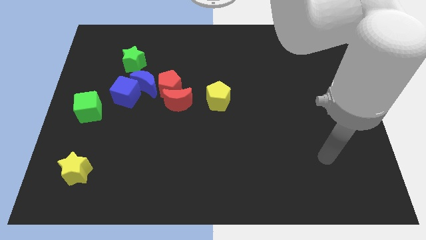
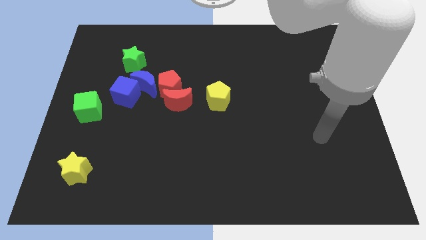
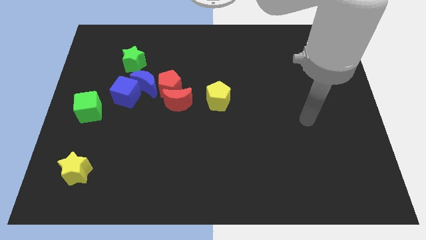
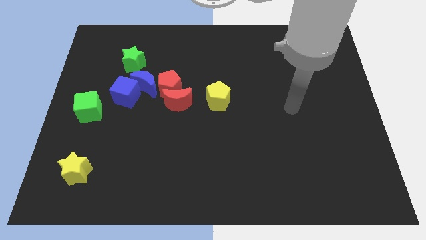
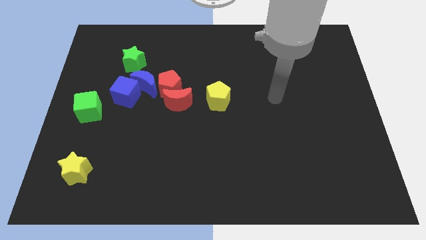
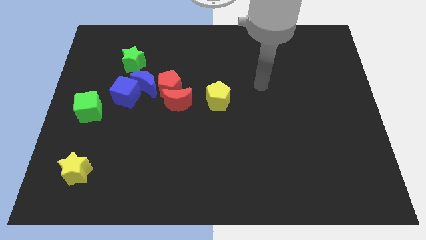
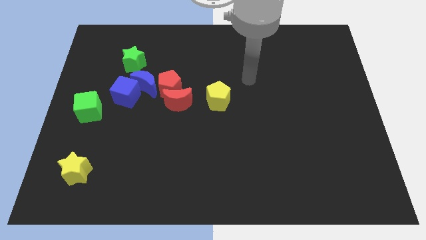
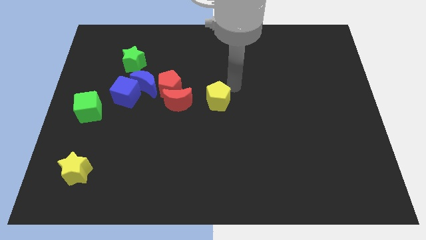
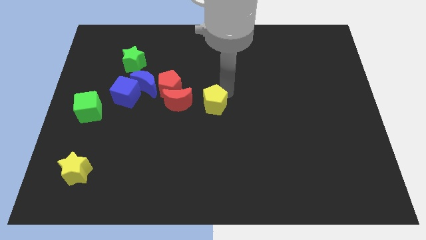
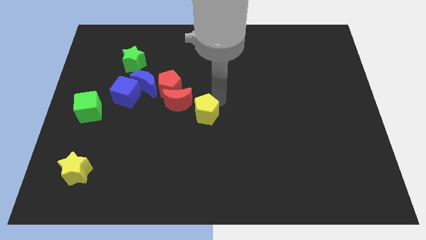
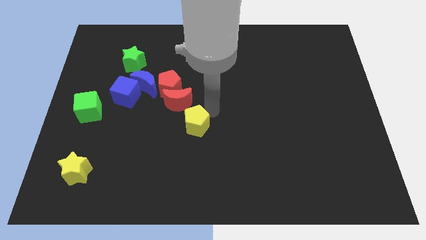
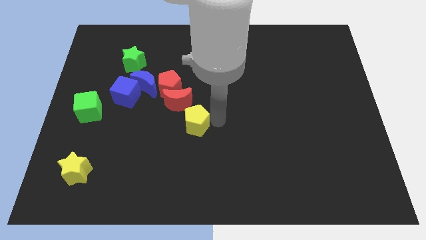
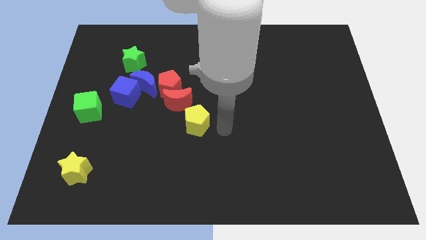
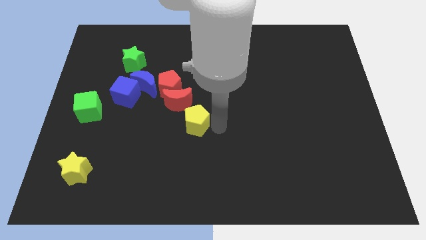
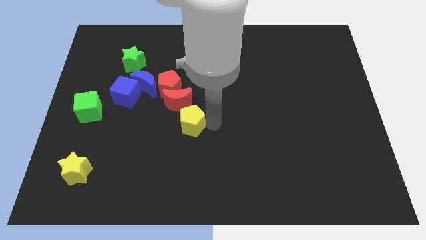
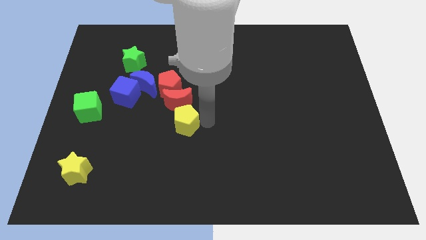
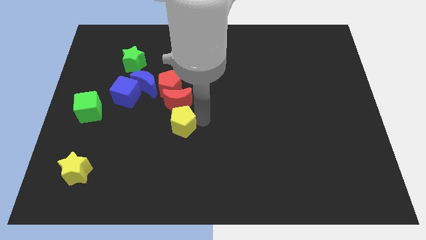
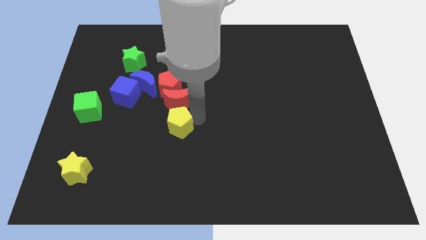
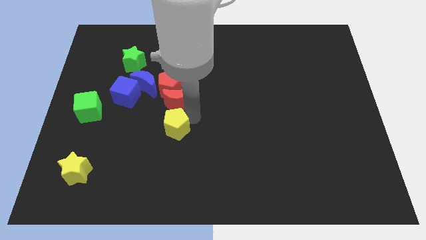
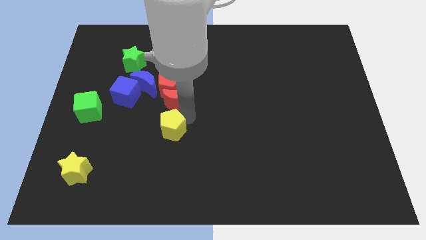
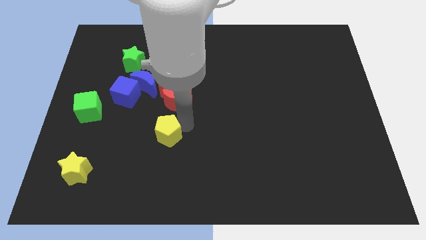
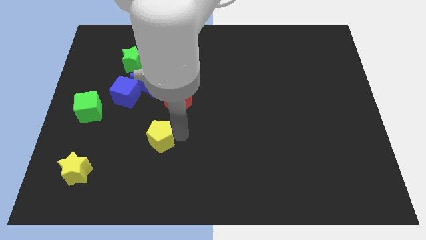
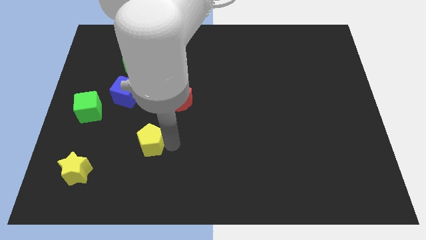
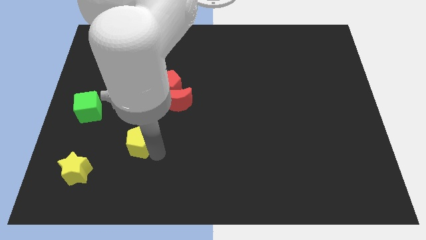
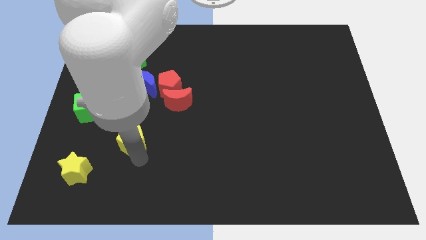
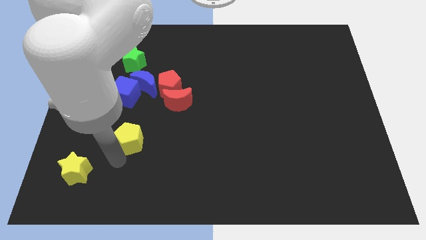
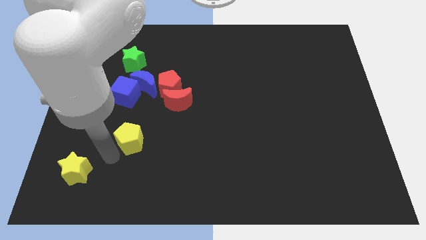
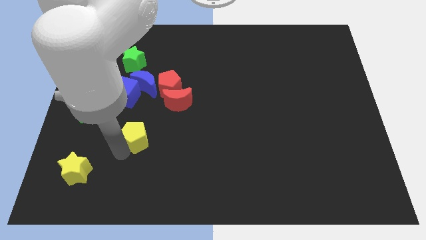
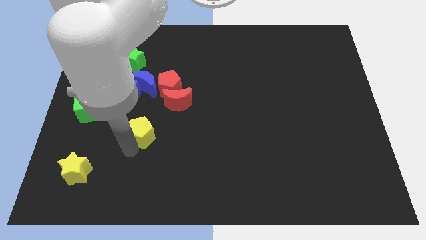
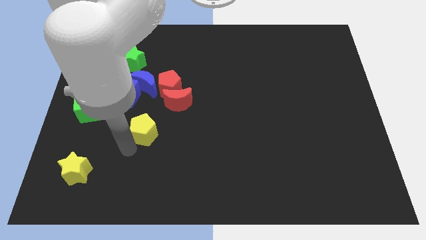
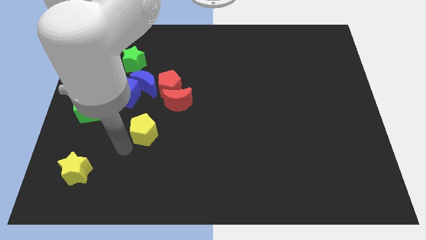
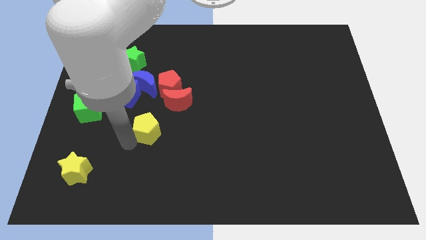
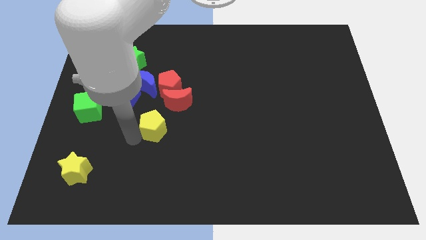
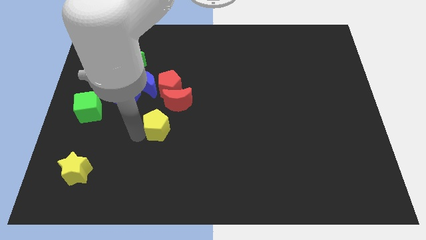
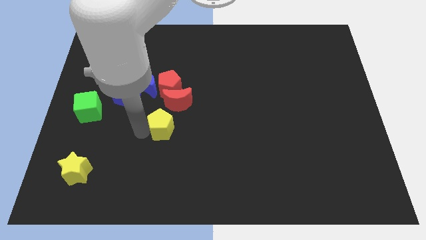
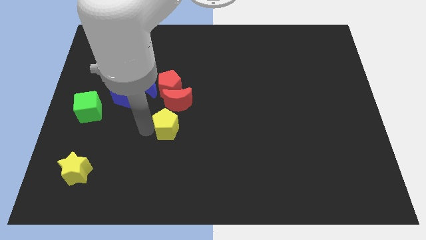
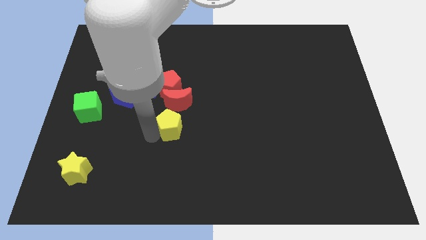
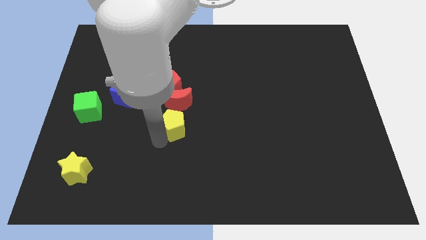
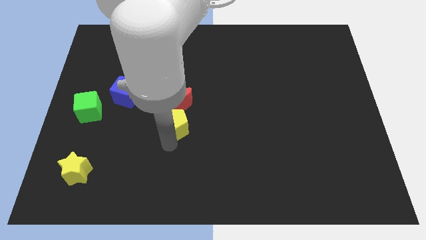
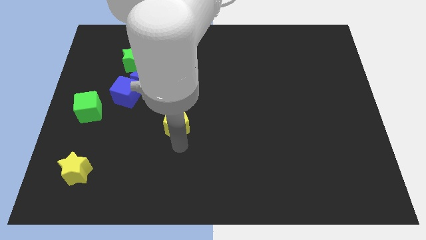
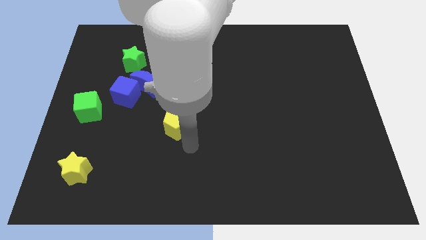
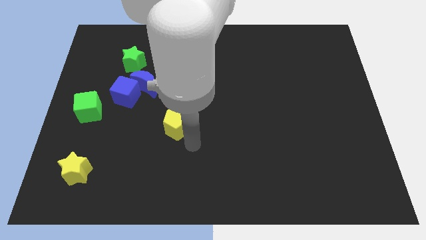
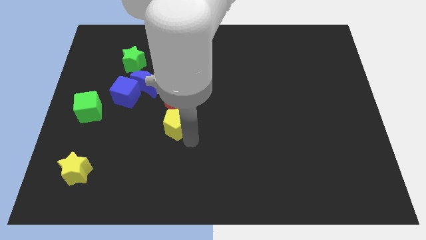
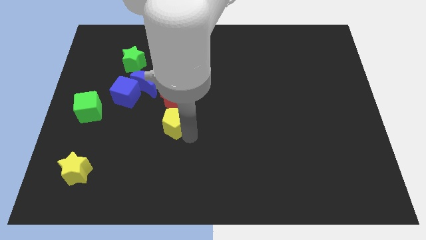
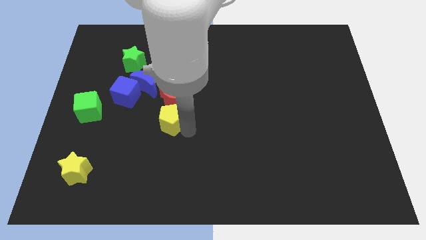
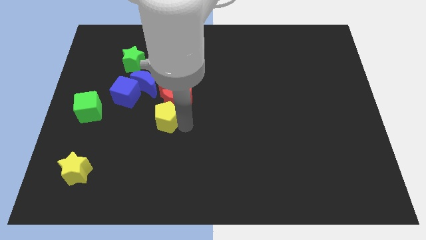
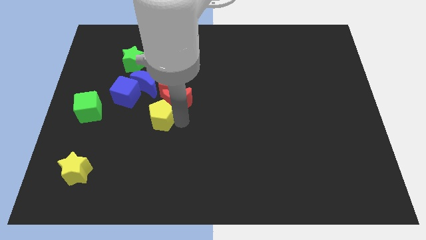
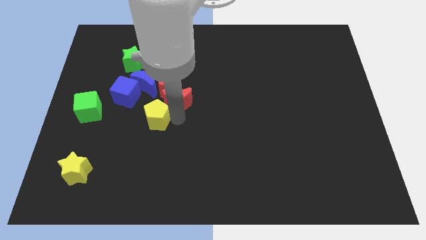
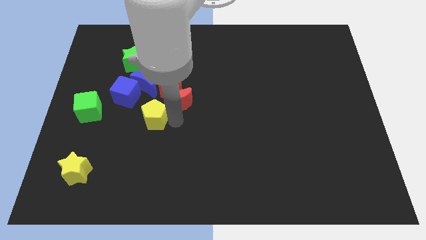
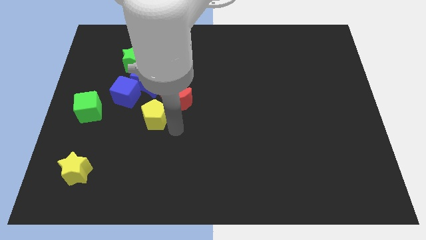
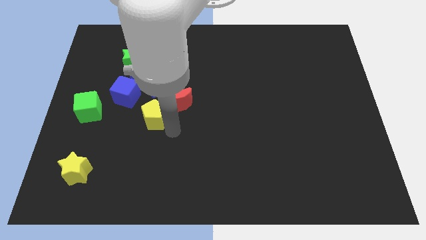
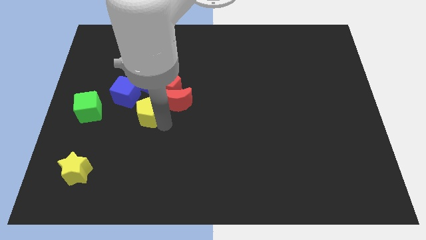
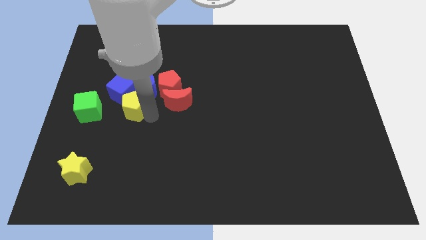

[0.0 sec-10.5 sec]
slide the yellow pentagon close to the blue cube

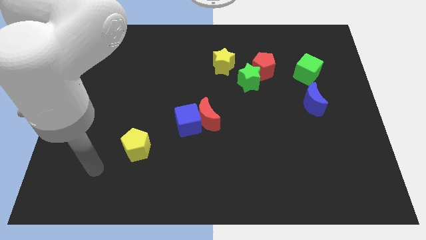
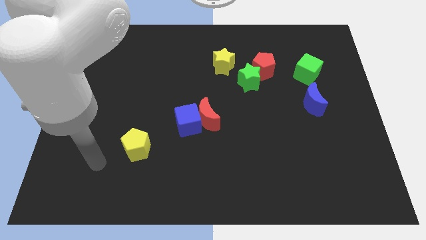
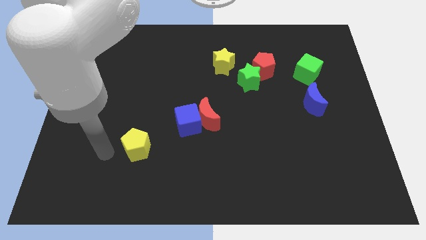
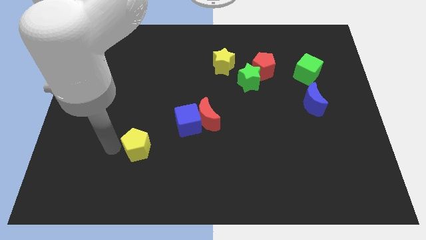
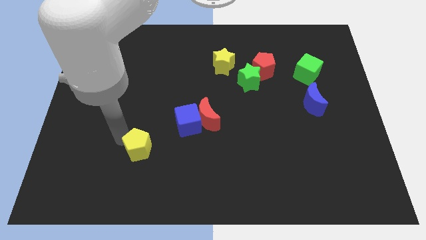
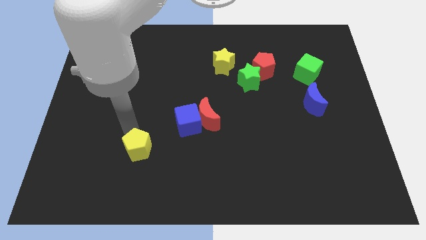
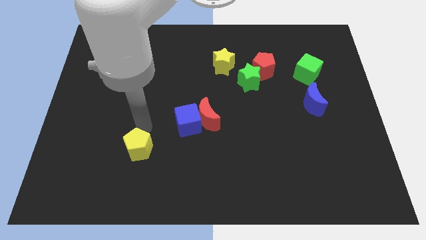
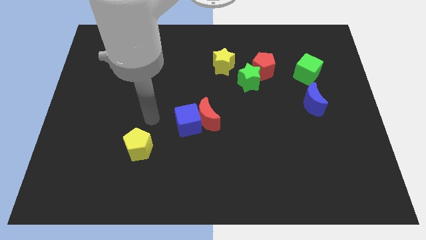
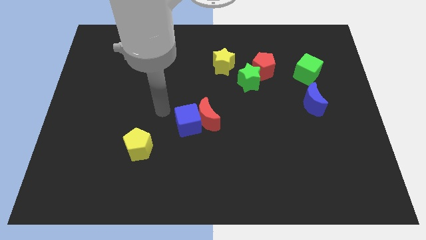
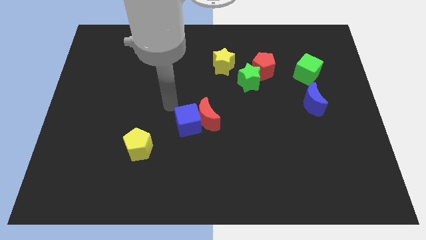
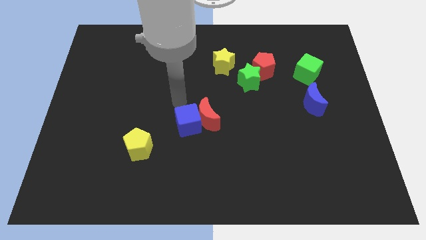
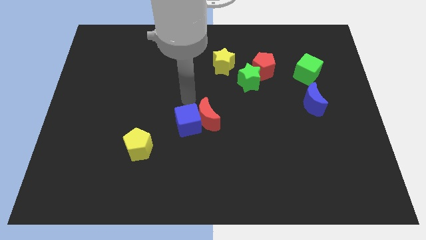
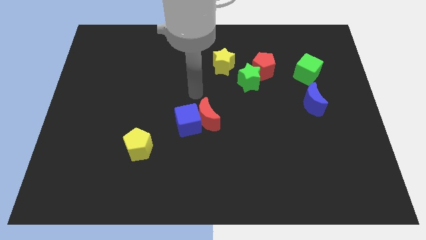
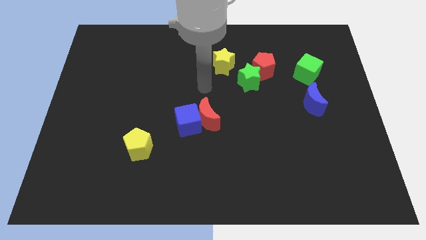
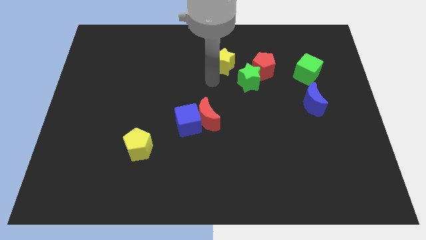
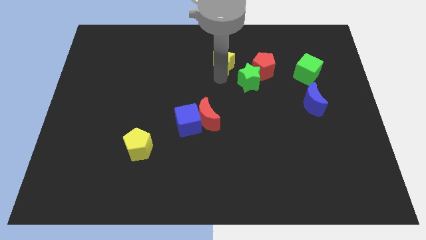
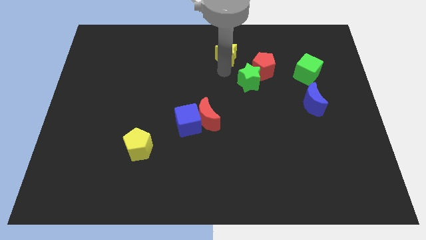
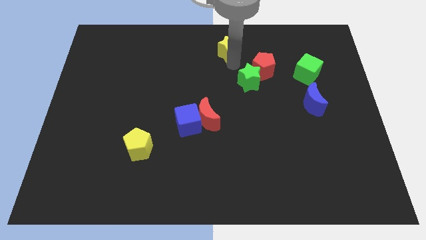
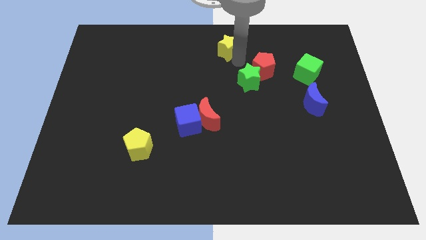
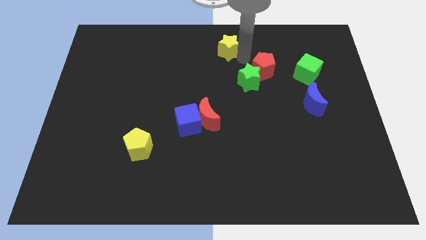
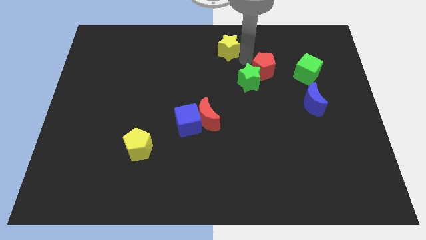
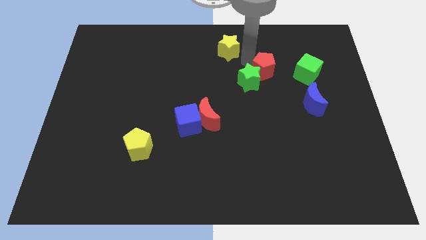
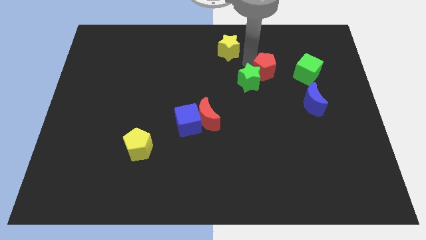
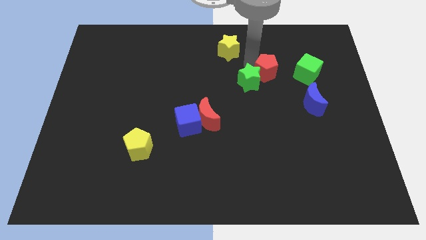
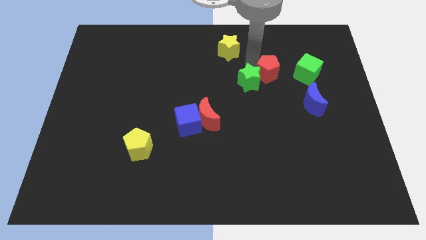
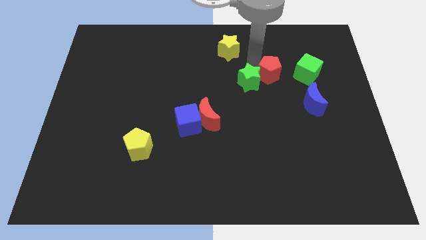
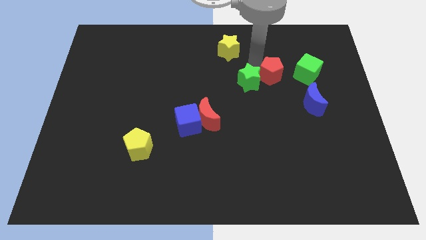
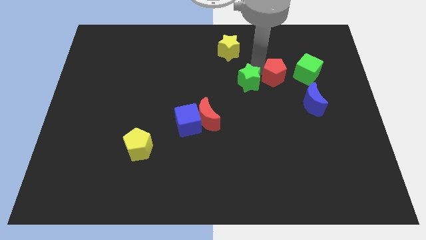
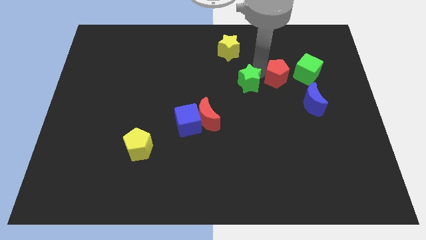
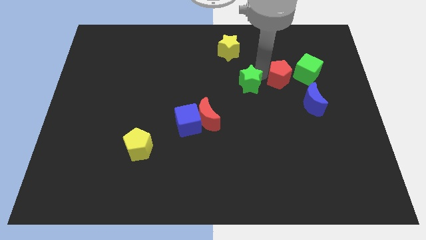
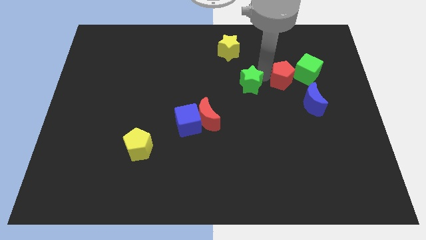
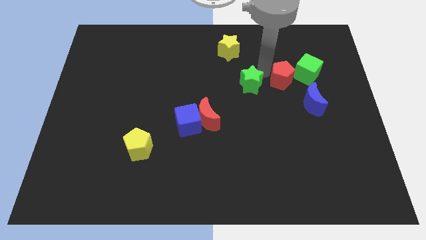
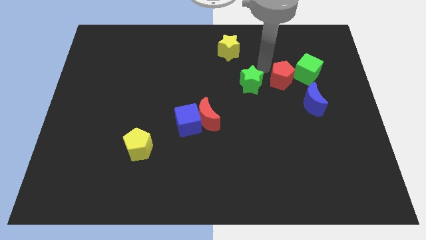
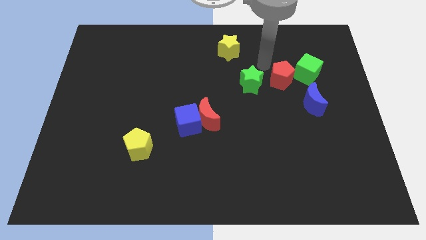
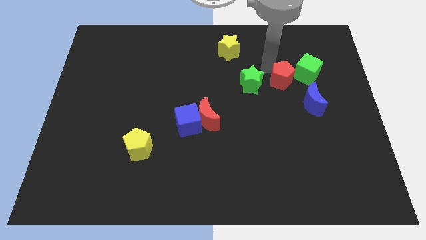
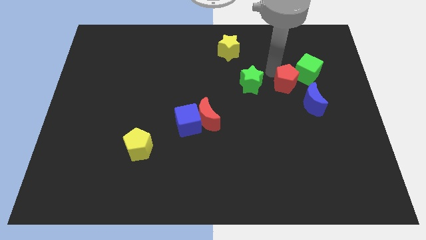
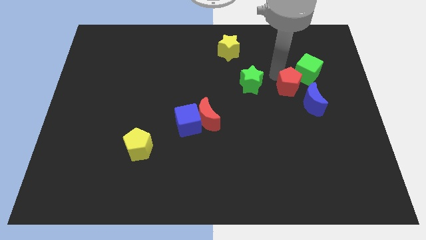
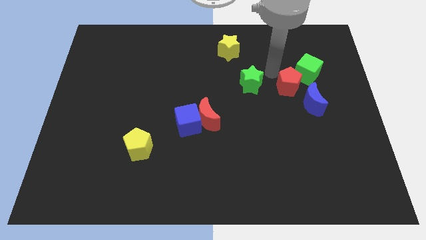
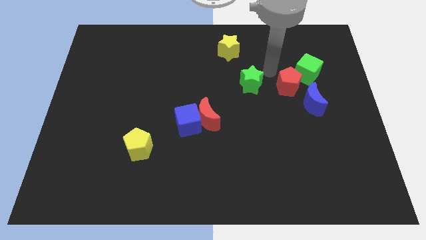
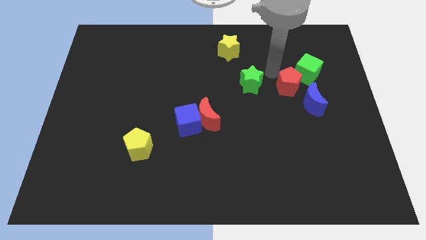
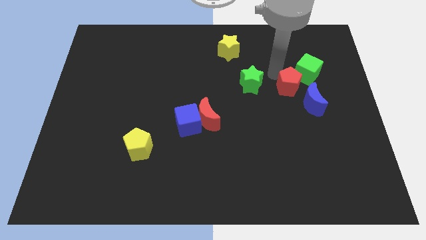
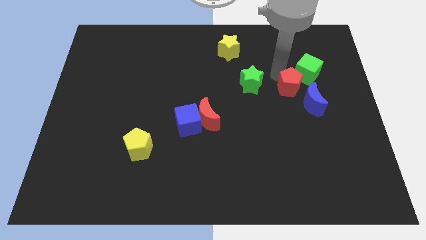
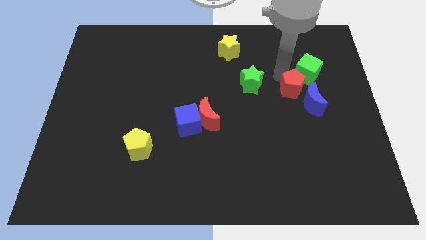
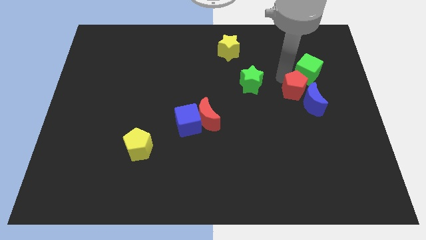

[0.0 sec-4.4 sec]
move the red pentagon towards the blue moon
